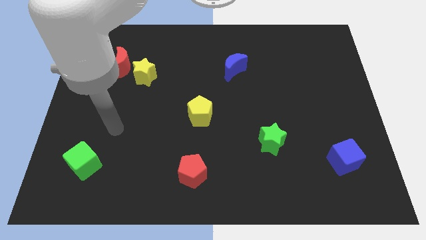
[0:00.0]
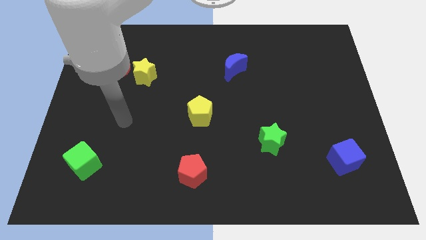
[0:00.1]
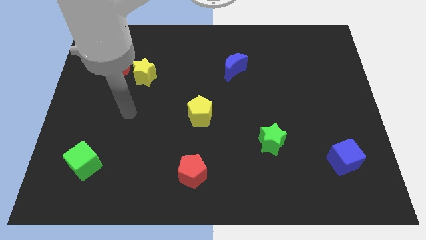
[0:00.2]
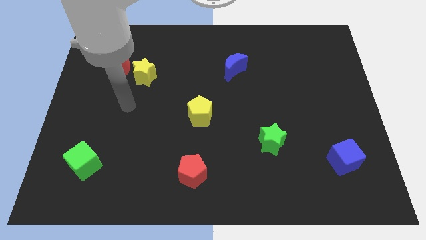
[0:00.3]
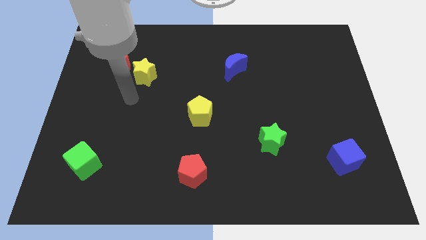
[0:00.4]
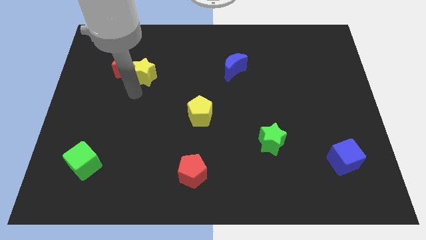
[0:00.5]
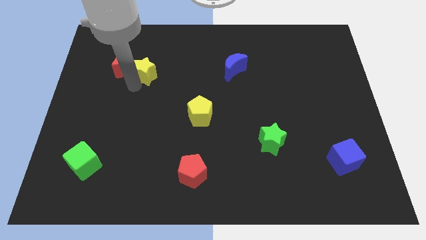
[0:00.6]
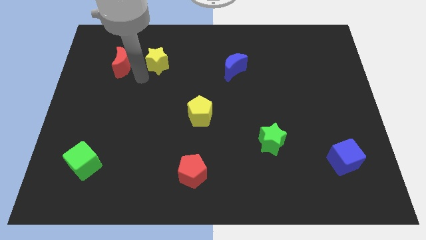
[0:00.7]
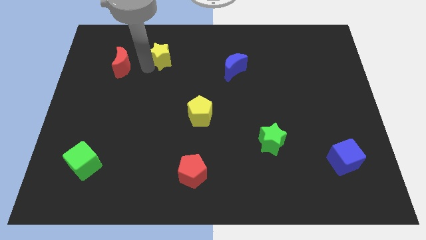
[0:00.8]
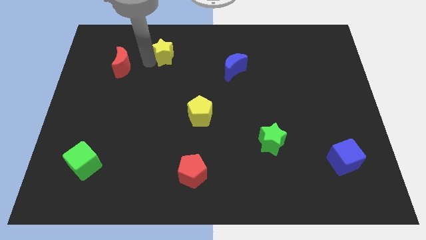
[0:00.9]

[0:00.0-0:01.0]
separate the red moon from the yellow star

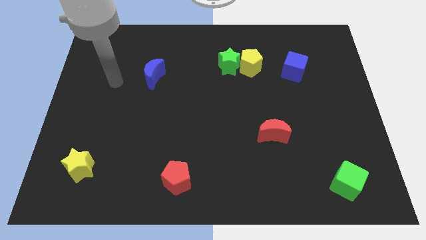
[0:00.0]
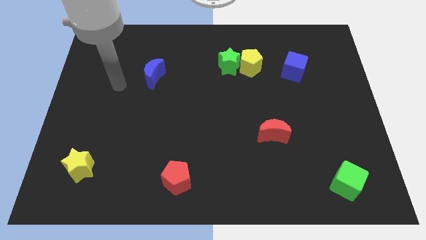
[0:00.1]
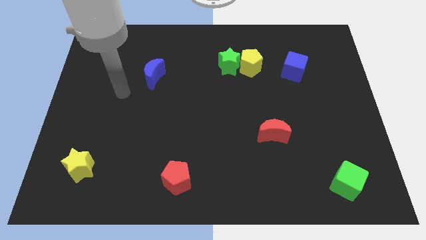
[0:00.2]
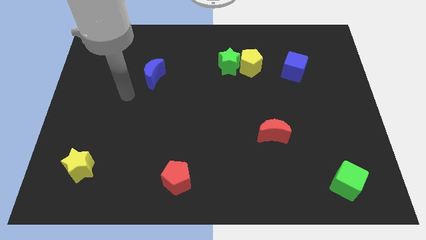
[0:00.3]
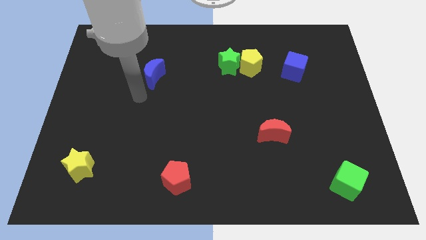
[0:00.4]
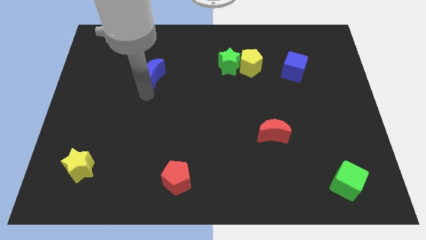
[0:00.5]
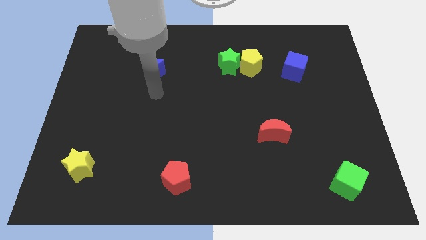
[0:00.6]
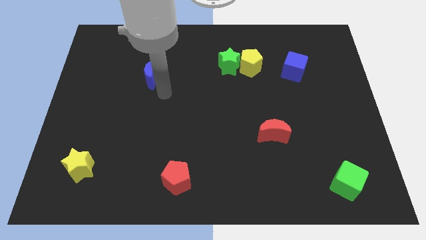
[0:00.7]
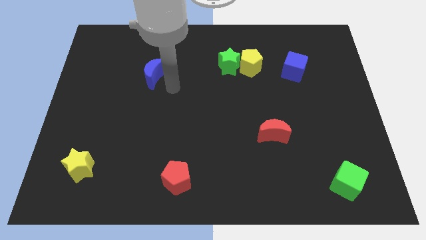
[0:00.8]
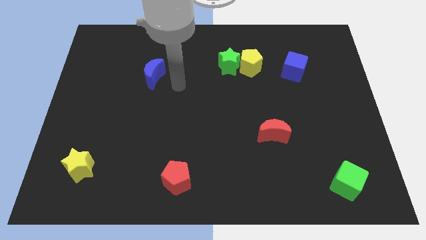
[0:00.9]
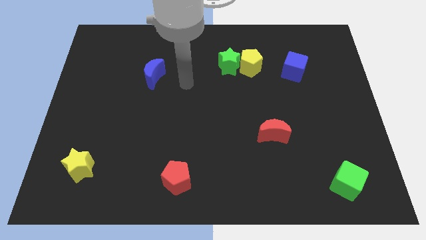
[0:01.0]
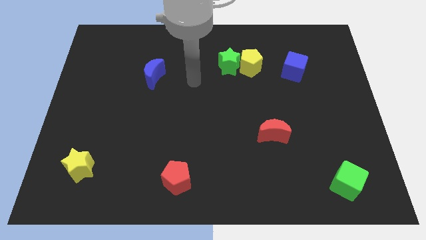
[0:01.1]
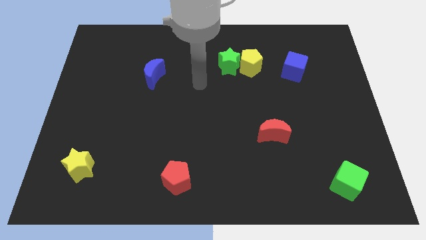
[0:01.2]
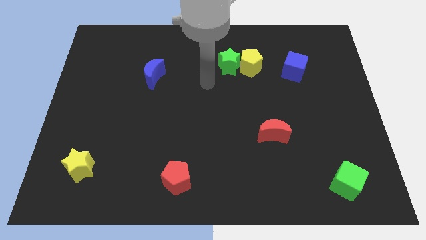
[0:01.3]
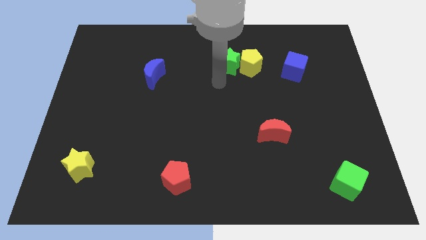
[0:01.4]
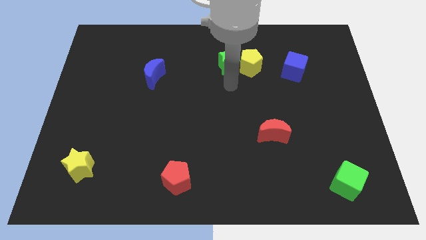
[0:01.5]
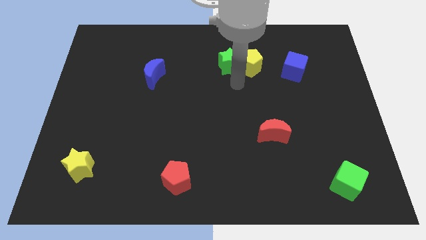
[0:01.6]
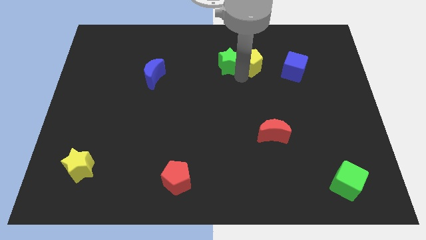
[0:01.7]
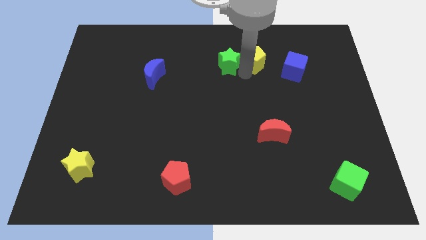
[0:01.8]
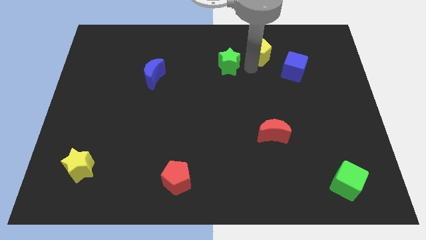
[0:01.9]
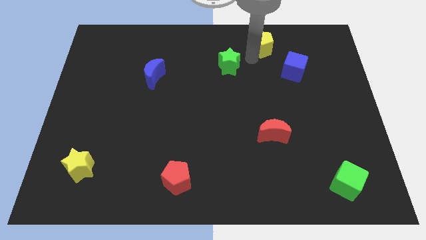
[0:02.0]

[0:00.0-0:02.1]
move the green star away from the yellow pentagon

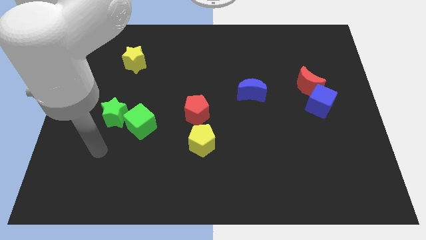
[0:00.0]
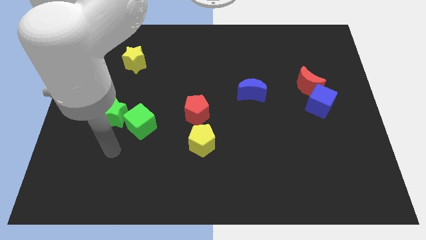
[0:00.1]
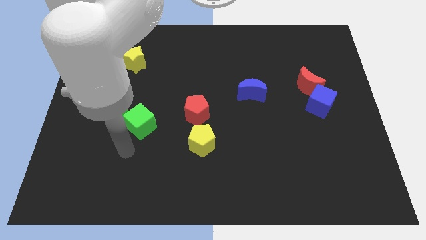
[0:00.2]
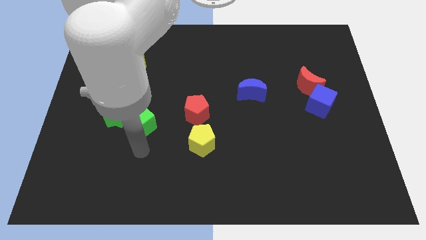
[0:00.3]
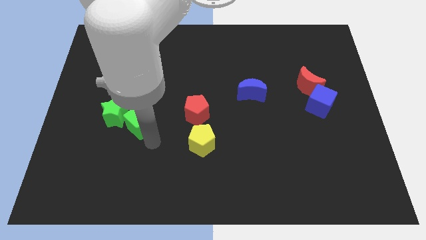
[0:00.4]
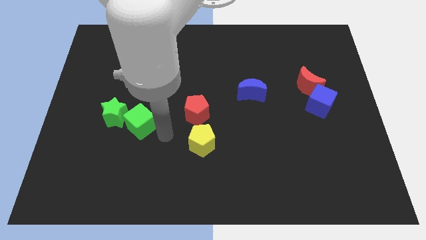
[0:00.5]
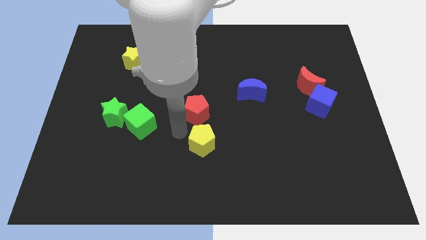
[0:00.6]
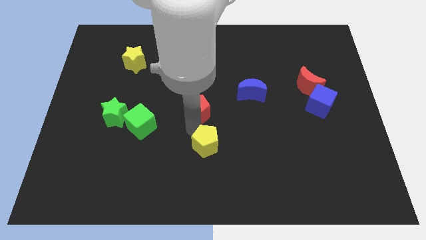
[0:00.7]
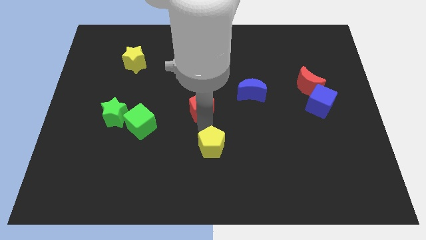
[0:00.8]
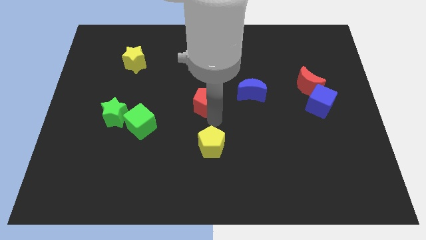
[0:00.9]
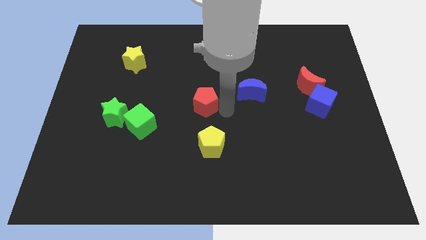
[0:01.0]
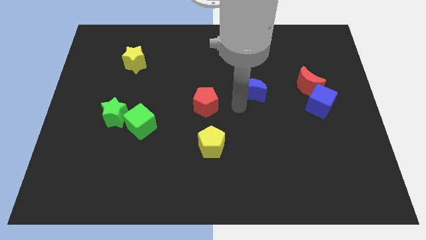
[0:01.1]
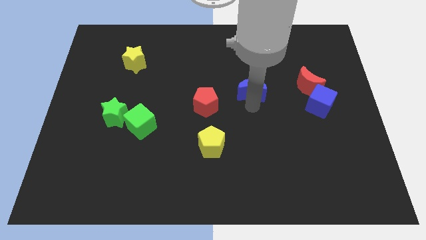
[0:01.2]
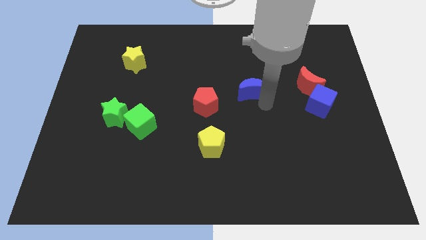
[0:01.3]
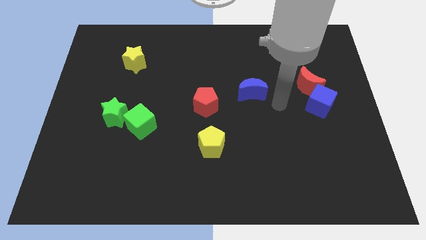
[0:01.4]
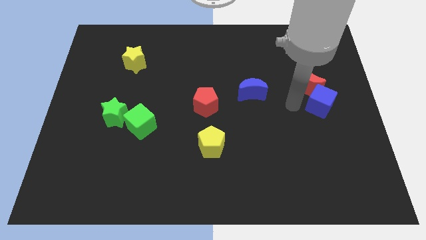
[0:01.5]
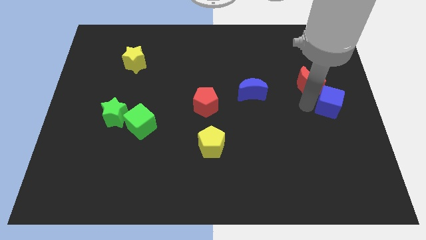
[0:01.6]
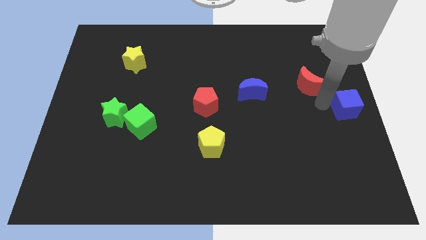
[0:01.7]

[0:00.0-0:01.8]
separate the red moon from the blue cube

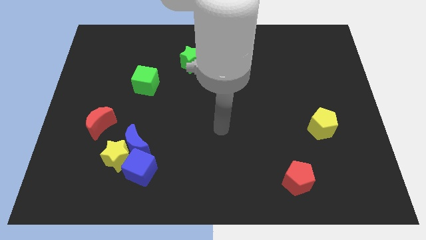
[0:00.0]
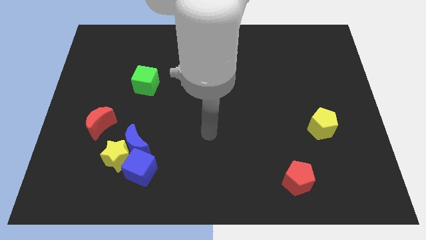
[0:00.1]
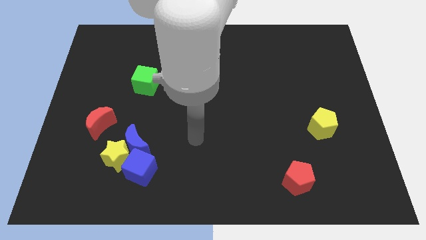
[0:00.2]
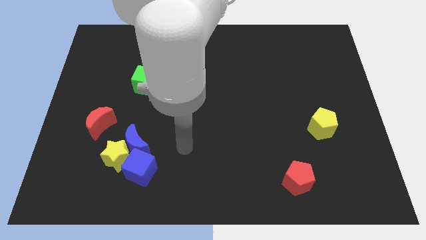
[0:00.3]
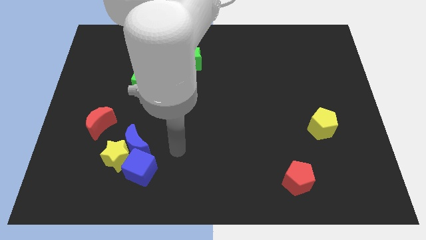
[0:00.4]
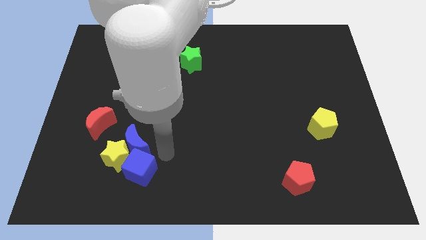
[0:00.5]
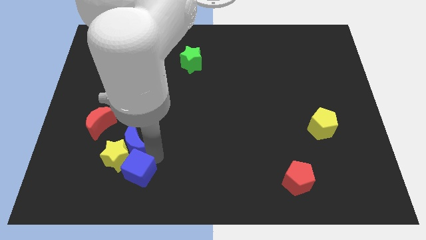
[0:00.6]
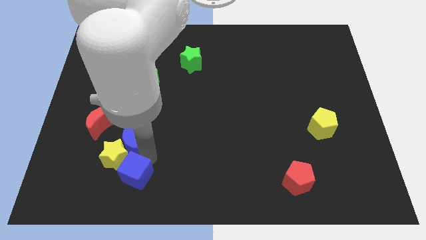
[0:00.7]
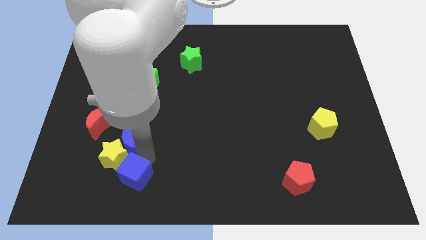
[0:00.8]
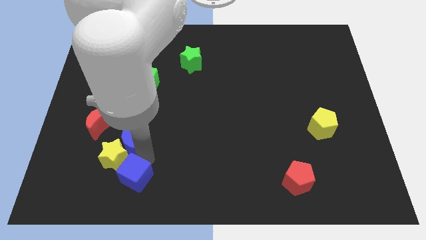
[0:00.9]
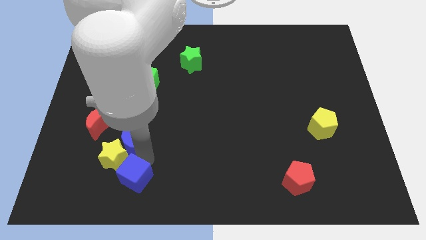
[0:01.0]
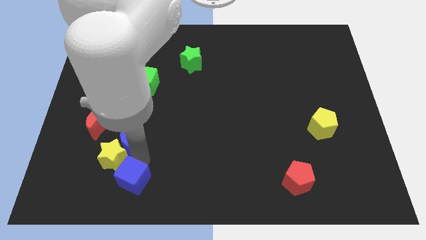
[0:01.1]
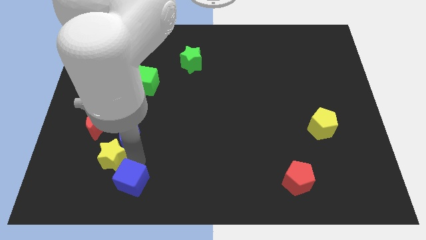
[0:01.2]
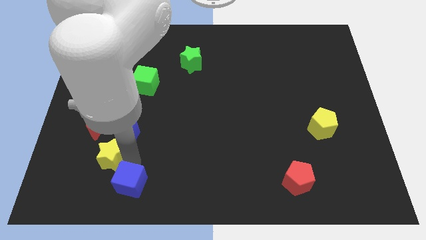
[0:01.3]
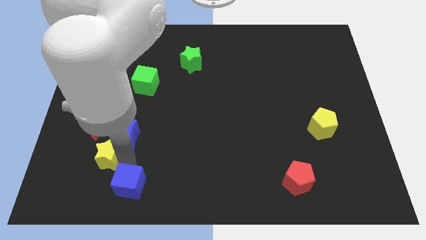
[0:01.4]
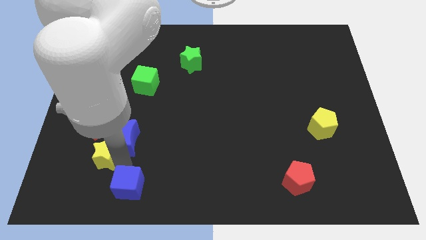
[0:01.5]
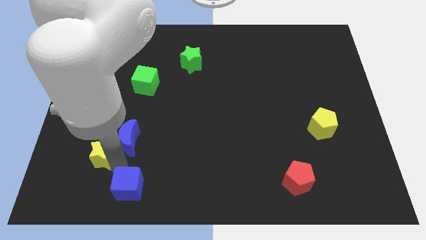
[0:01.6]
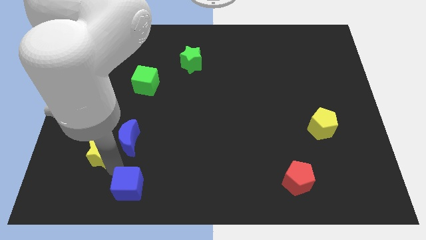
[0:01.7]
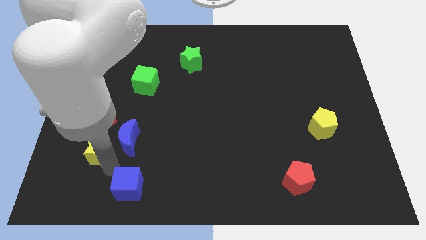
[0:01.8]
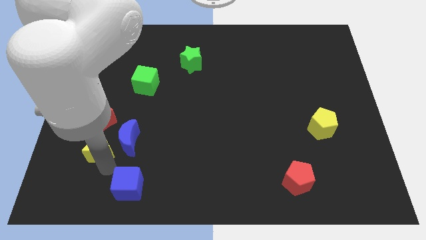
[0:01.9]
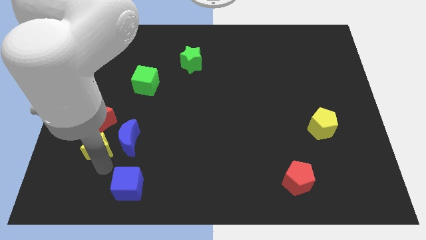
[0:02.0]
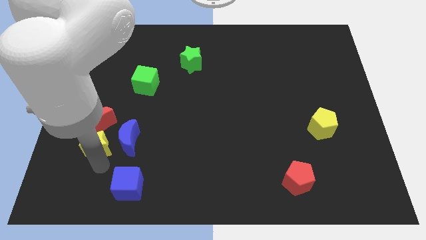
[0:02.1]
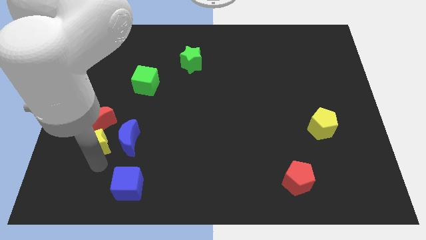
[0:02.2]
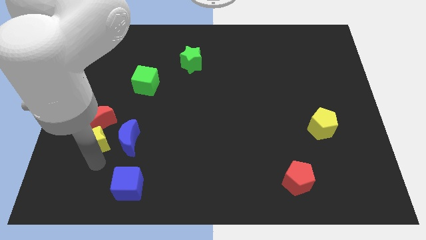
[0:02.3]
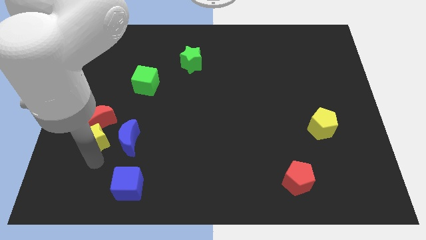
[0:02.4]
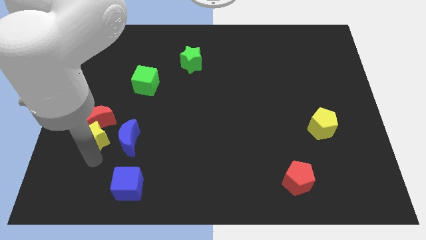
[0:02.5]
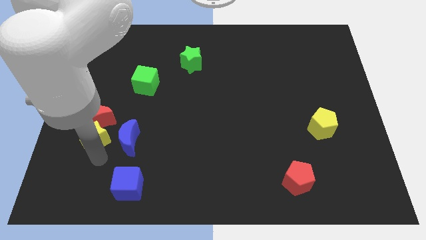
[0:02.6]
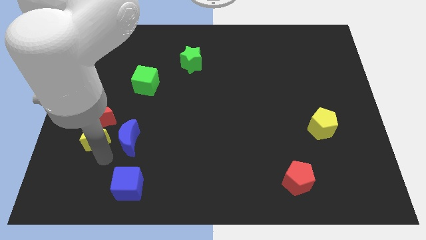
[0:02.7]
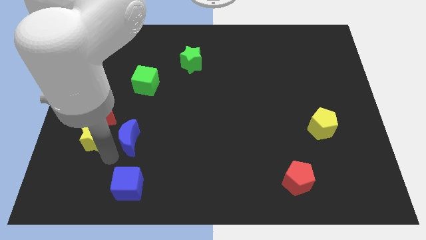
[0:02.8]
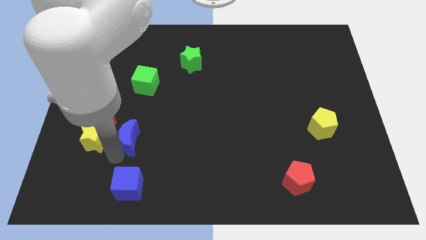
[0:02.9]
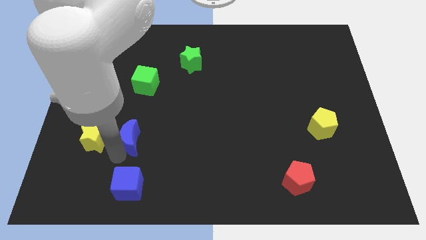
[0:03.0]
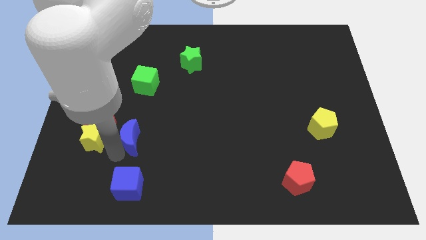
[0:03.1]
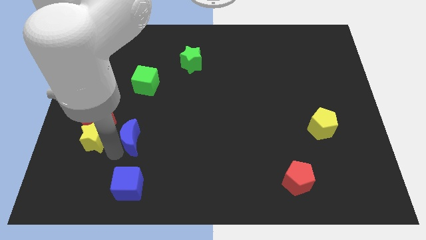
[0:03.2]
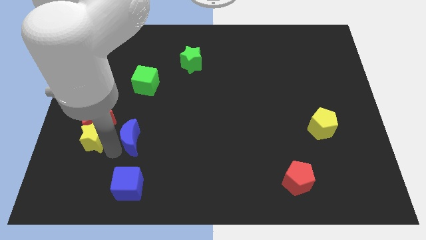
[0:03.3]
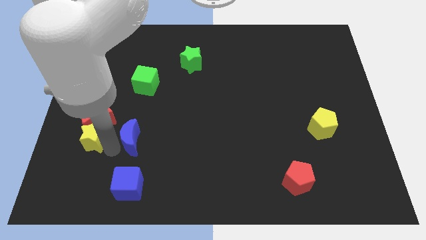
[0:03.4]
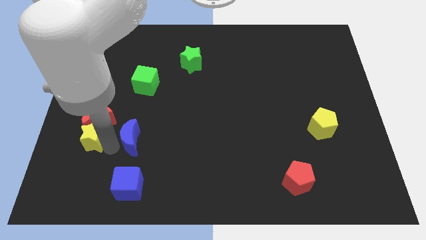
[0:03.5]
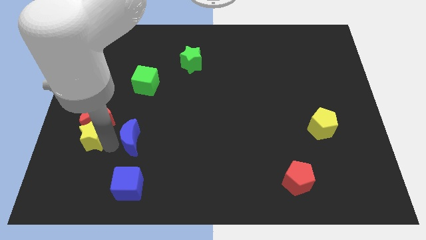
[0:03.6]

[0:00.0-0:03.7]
pull the yellow star apart from the blue moon and blue cube

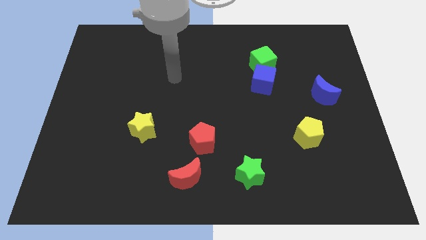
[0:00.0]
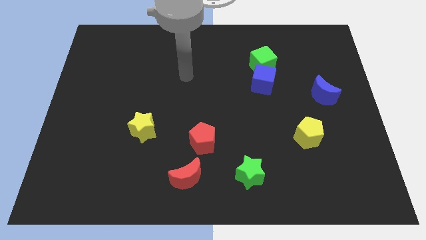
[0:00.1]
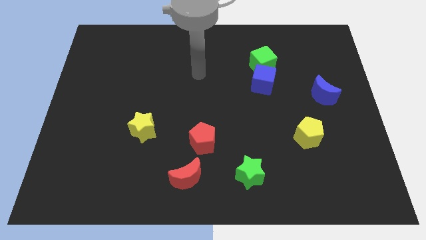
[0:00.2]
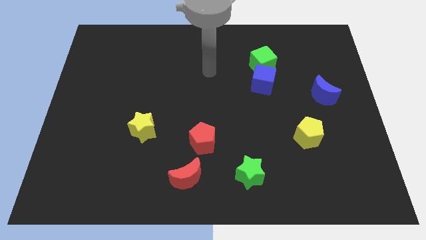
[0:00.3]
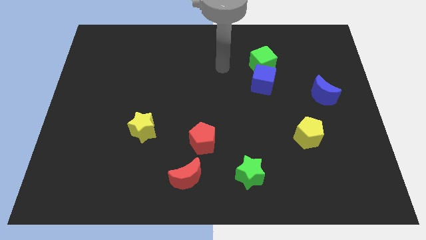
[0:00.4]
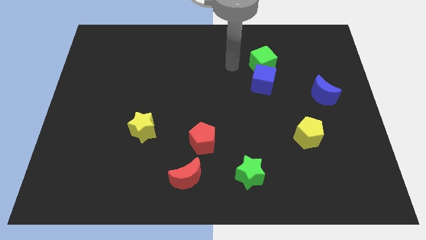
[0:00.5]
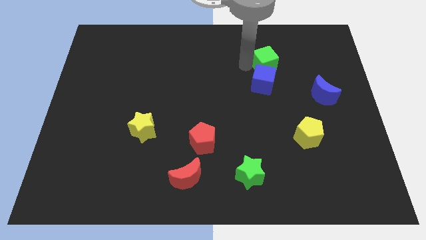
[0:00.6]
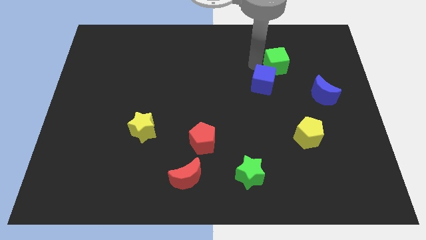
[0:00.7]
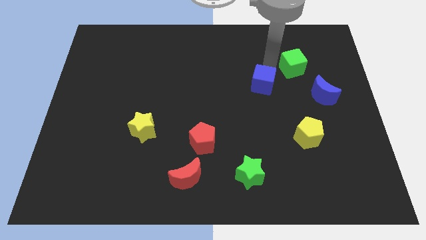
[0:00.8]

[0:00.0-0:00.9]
move the blue cube away from the green cube
